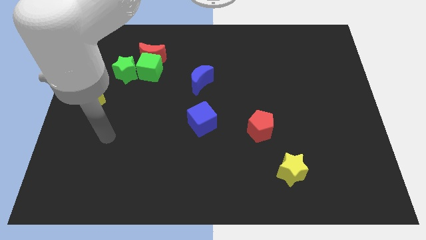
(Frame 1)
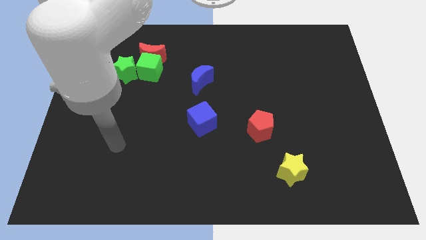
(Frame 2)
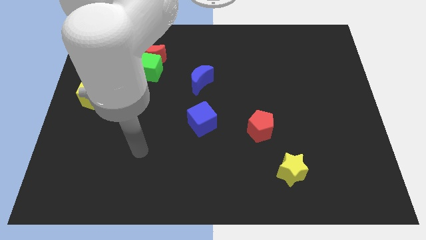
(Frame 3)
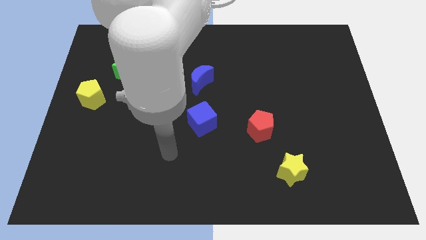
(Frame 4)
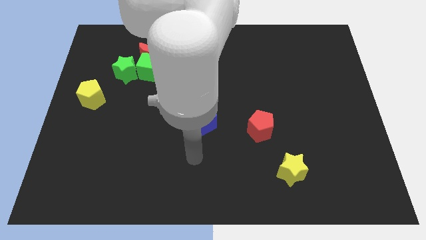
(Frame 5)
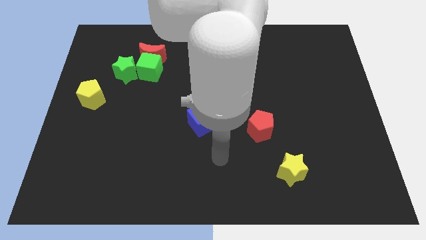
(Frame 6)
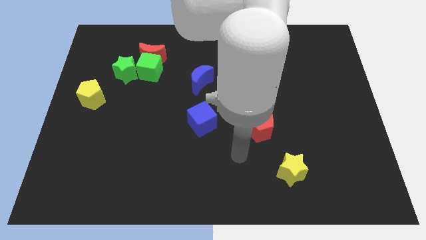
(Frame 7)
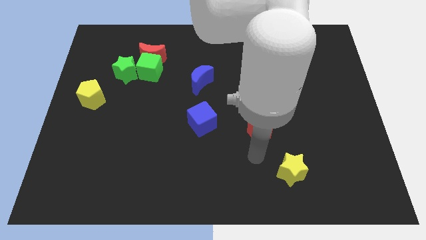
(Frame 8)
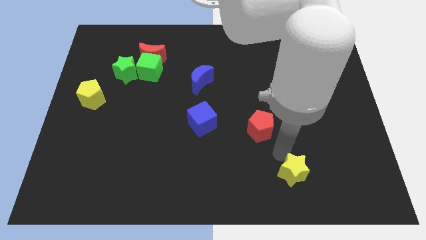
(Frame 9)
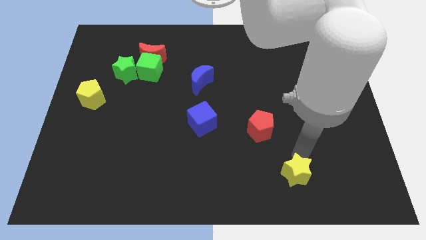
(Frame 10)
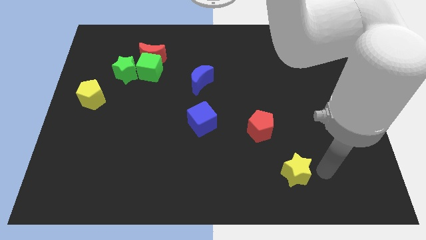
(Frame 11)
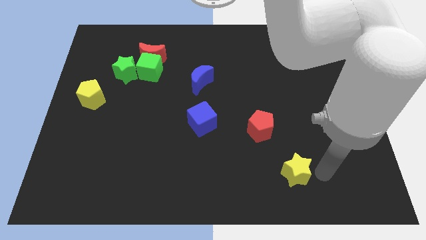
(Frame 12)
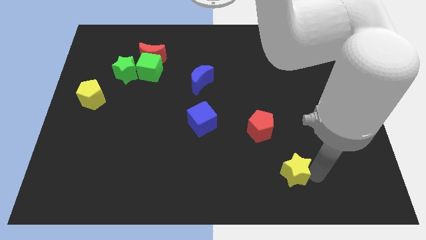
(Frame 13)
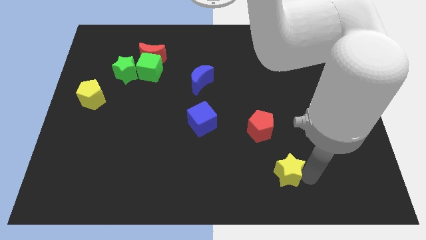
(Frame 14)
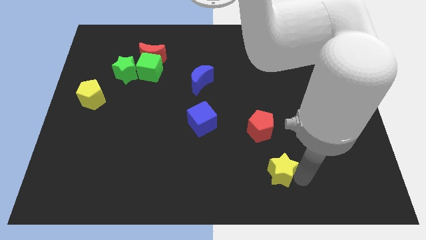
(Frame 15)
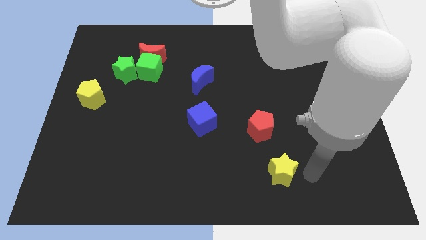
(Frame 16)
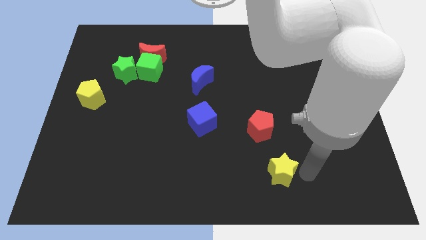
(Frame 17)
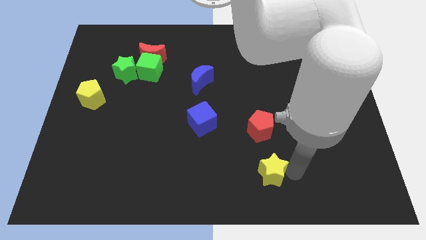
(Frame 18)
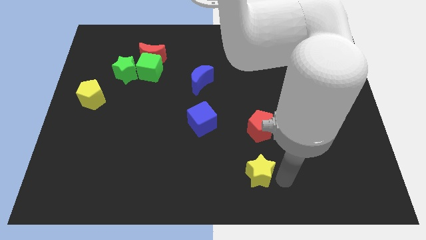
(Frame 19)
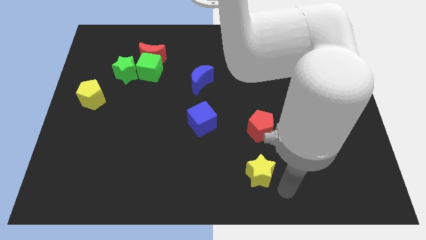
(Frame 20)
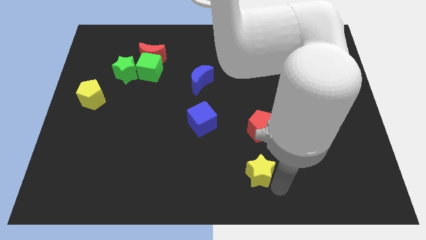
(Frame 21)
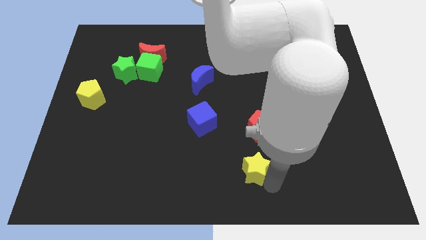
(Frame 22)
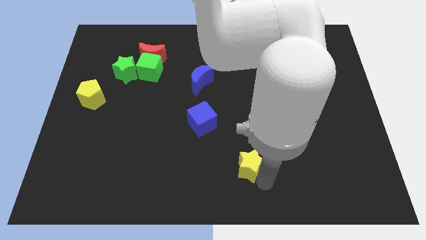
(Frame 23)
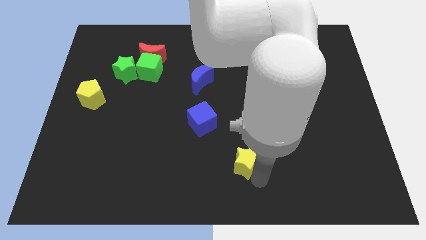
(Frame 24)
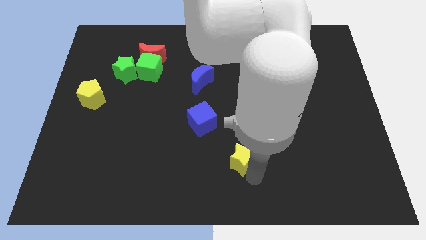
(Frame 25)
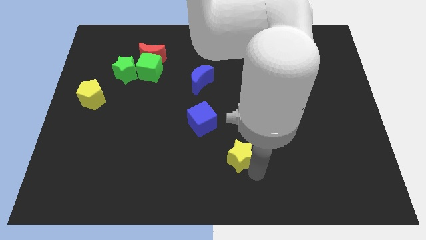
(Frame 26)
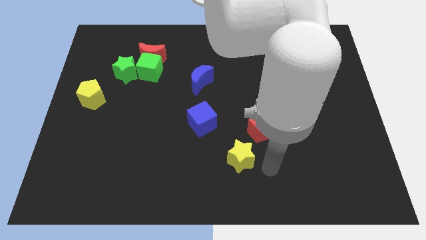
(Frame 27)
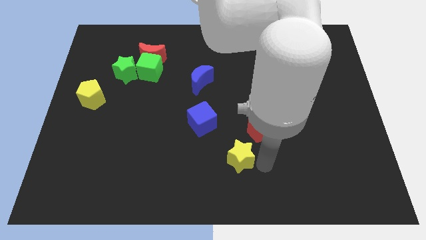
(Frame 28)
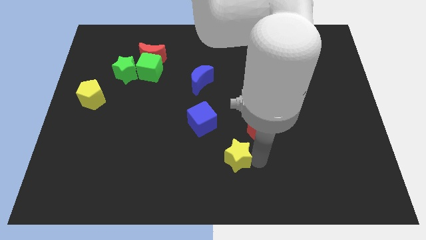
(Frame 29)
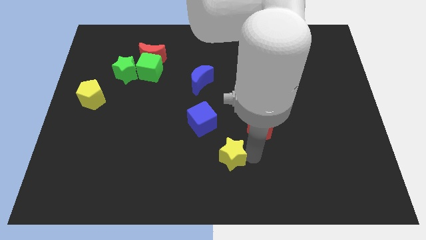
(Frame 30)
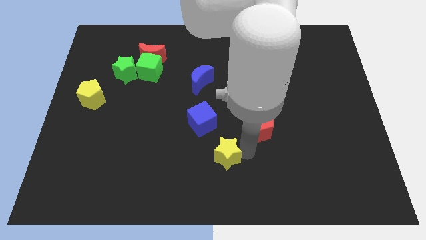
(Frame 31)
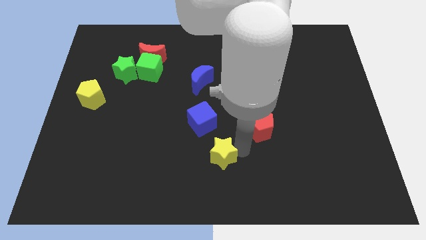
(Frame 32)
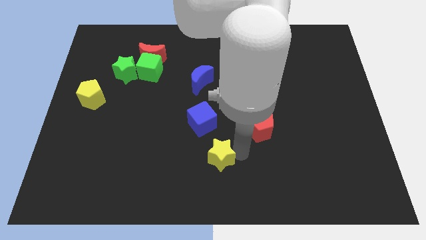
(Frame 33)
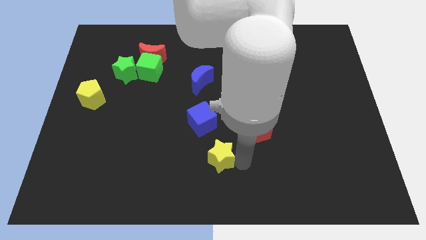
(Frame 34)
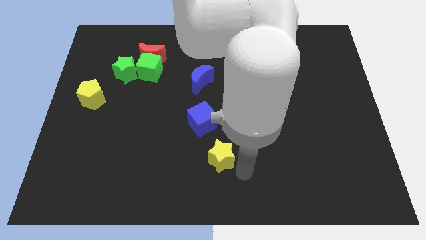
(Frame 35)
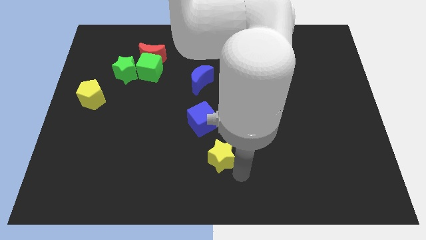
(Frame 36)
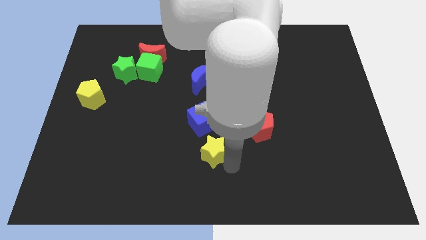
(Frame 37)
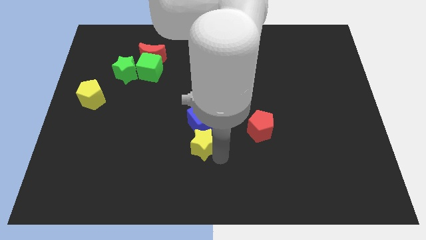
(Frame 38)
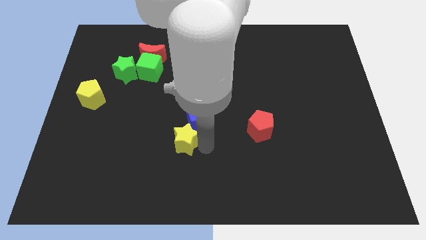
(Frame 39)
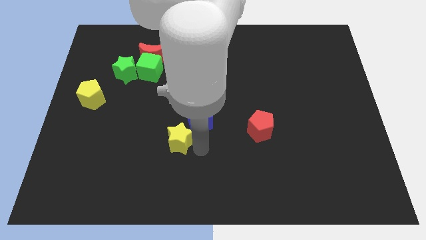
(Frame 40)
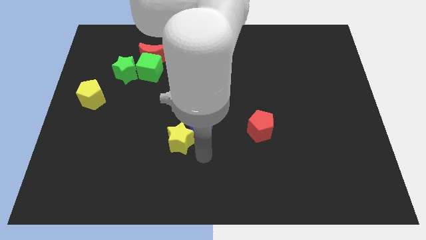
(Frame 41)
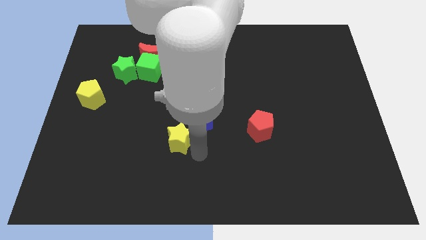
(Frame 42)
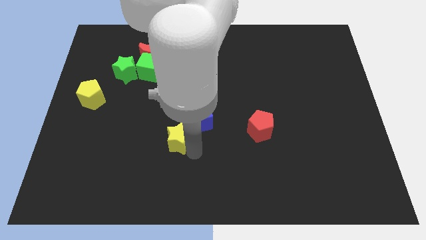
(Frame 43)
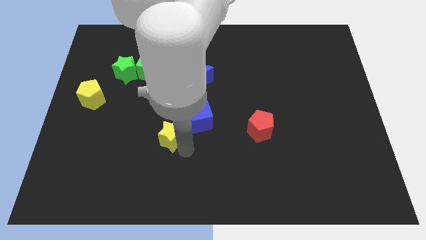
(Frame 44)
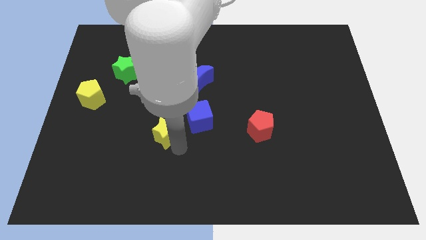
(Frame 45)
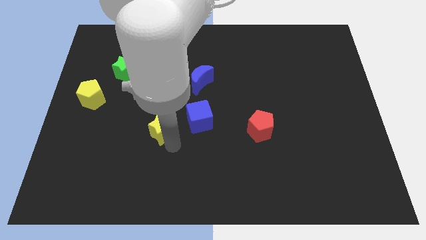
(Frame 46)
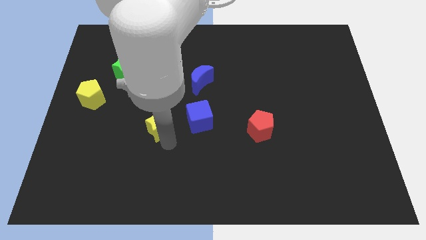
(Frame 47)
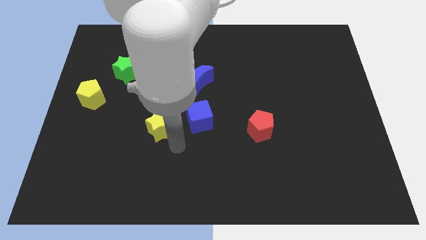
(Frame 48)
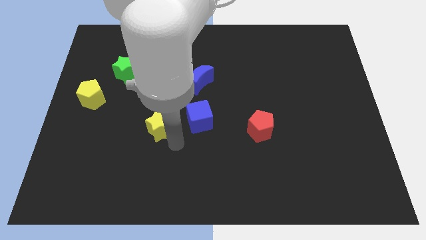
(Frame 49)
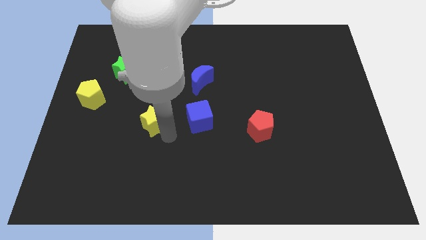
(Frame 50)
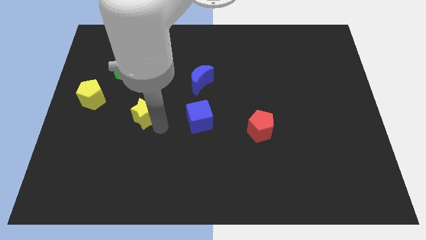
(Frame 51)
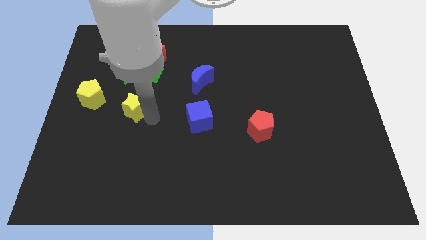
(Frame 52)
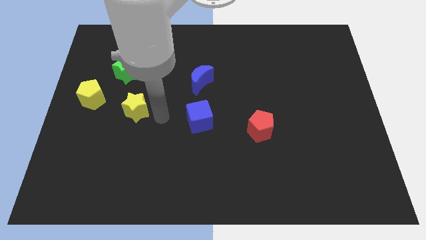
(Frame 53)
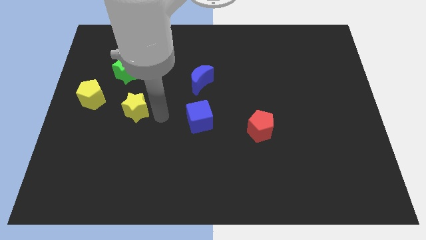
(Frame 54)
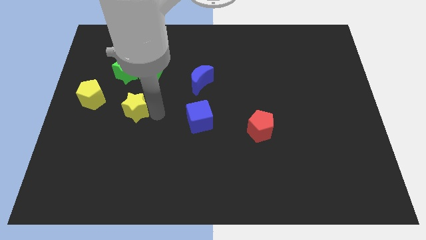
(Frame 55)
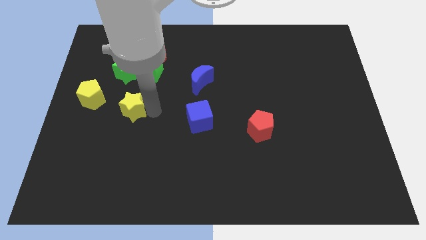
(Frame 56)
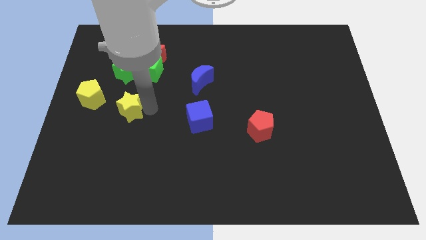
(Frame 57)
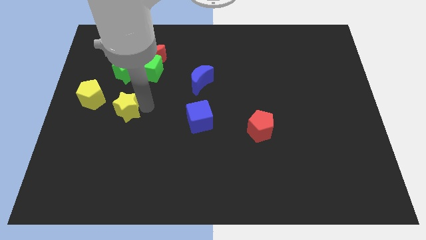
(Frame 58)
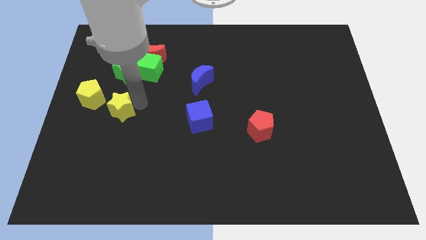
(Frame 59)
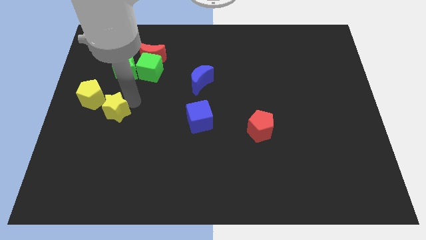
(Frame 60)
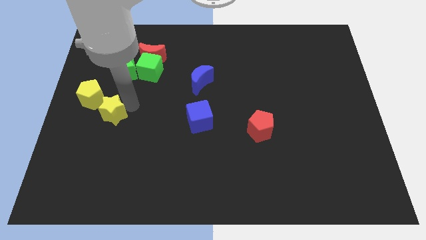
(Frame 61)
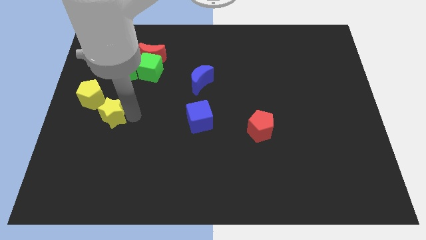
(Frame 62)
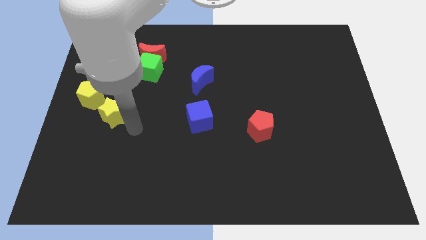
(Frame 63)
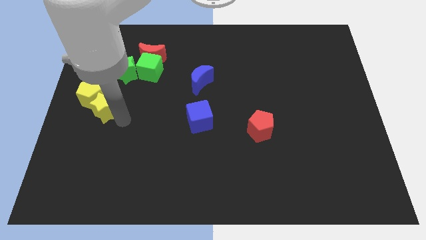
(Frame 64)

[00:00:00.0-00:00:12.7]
slide the yellow star close to the yellow pentagon
